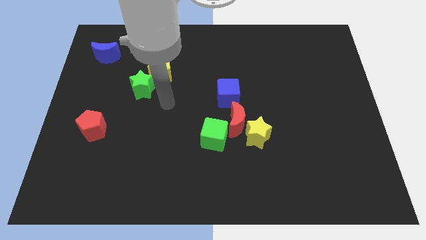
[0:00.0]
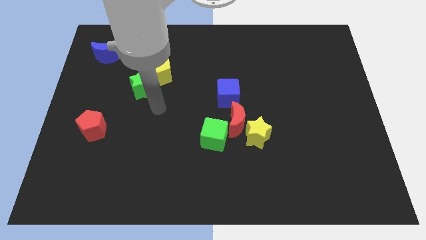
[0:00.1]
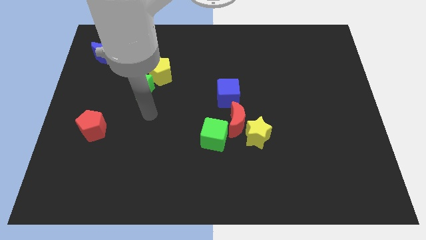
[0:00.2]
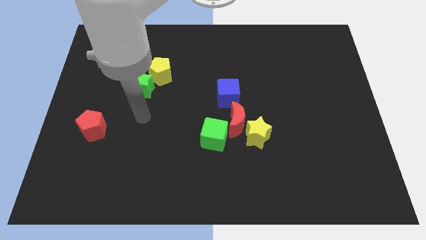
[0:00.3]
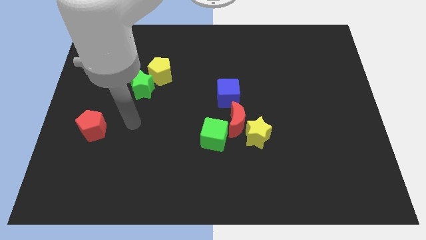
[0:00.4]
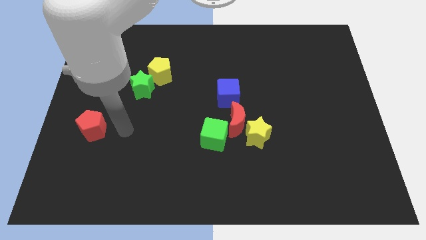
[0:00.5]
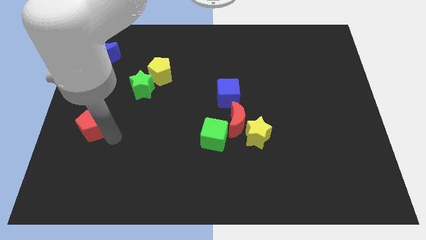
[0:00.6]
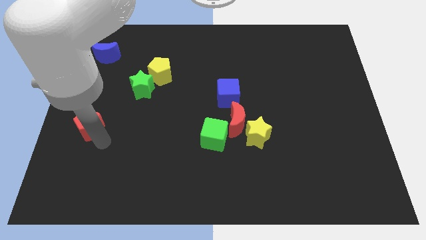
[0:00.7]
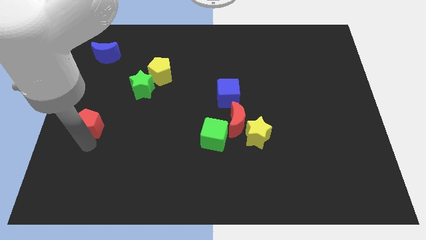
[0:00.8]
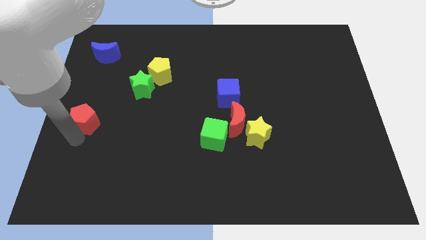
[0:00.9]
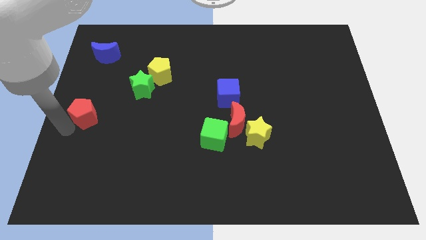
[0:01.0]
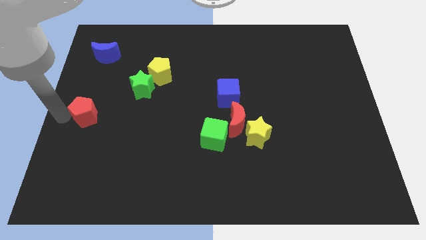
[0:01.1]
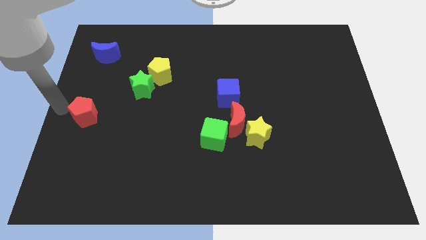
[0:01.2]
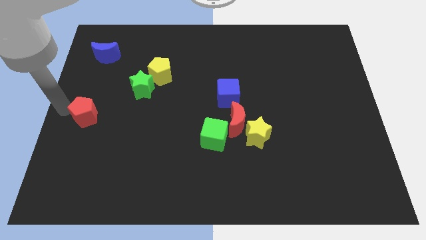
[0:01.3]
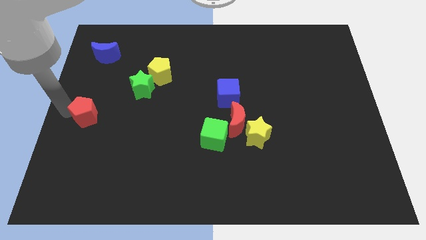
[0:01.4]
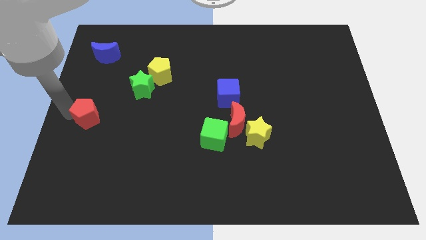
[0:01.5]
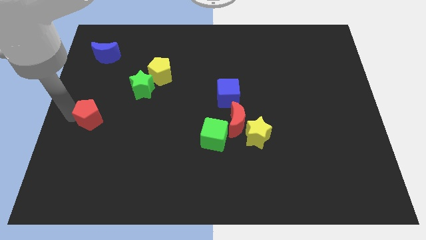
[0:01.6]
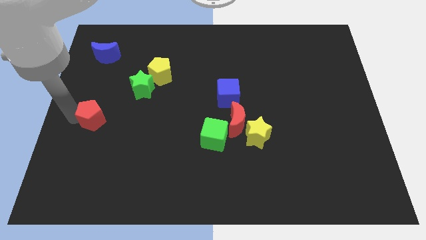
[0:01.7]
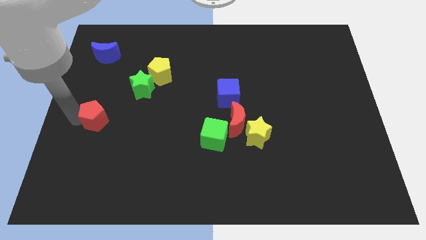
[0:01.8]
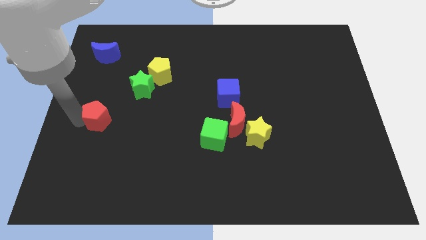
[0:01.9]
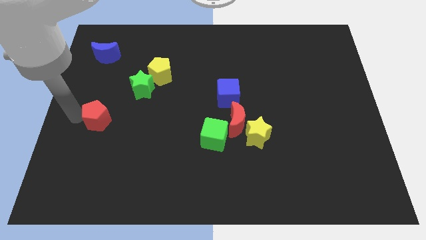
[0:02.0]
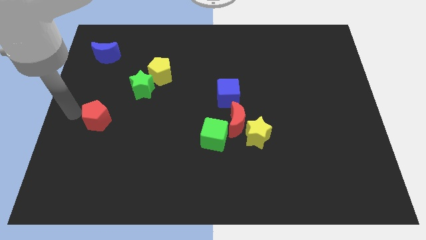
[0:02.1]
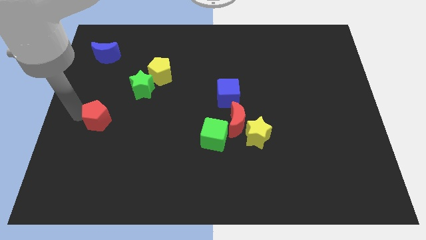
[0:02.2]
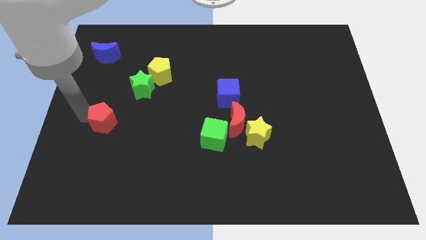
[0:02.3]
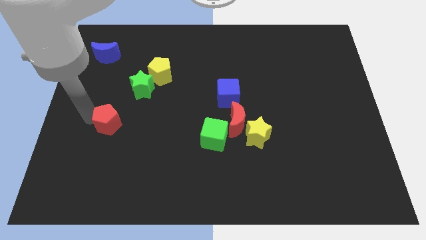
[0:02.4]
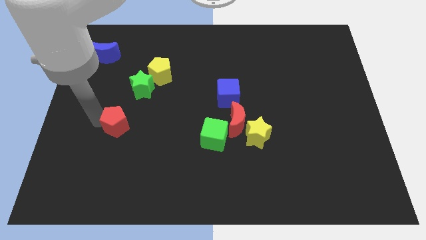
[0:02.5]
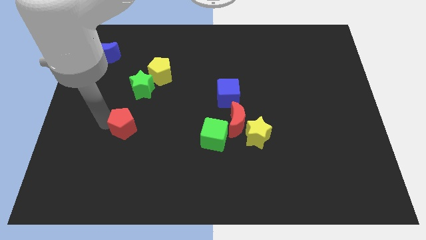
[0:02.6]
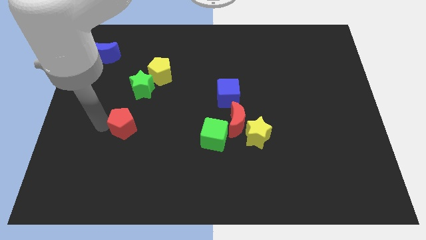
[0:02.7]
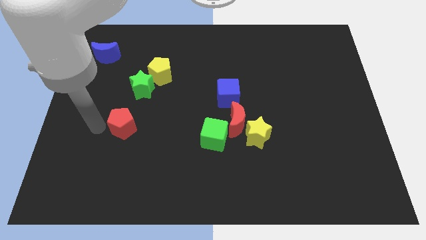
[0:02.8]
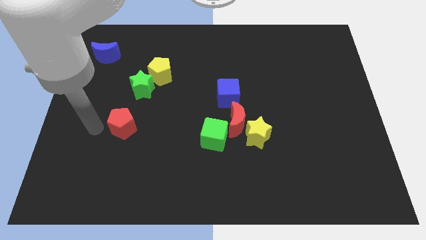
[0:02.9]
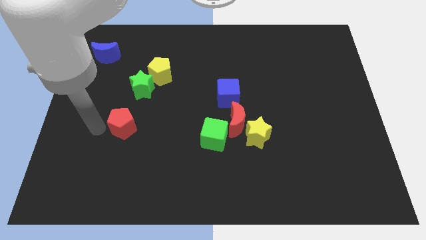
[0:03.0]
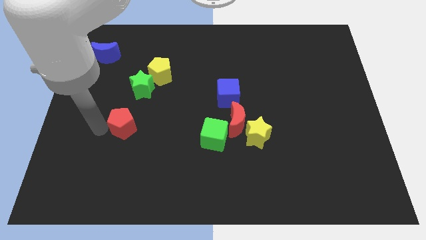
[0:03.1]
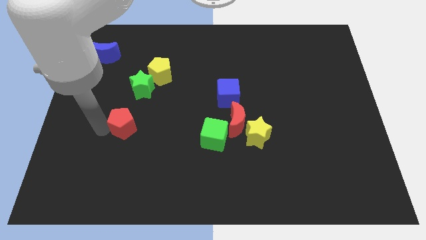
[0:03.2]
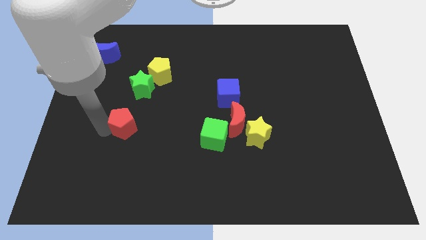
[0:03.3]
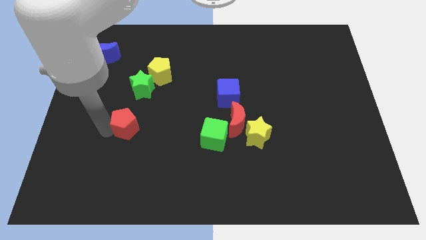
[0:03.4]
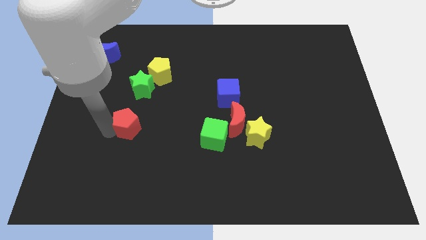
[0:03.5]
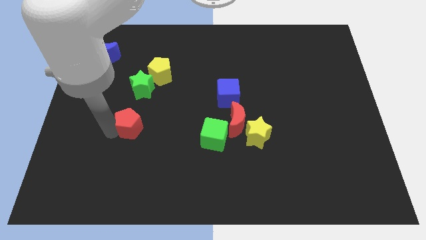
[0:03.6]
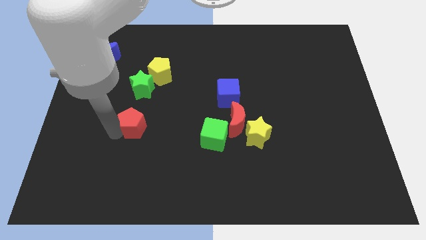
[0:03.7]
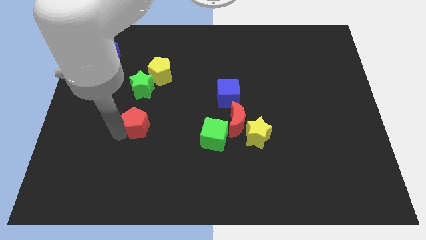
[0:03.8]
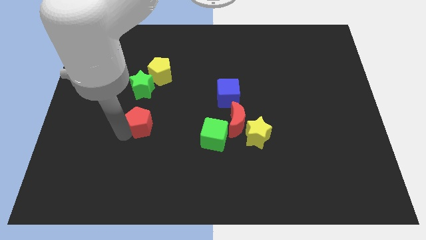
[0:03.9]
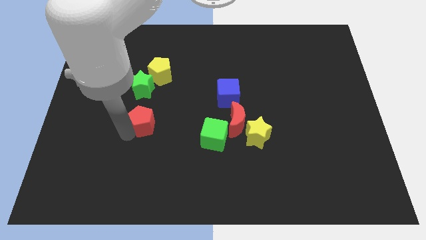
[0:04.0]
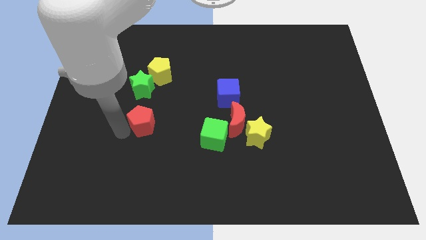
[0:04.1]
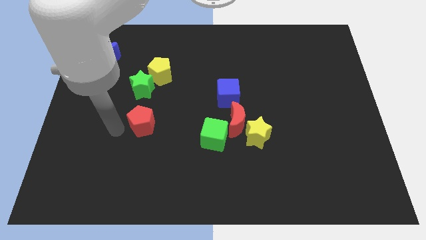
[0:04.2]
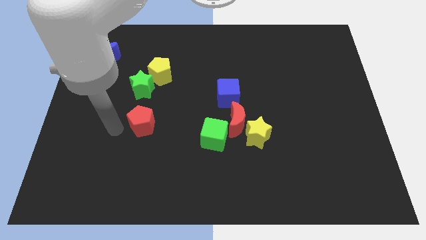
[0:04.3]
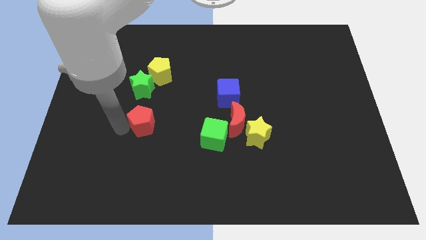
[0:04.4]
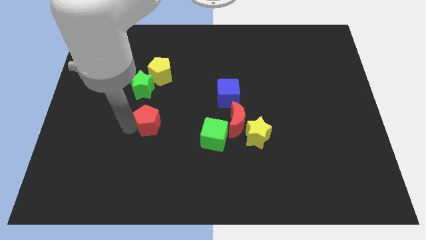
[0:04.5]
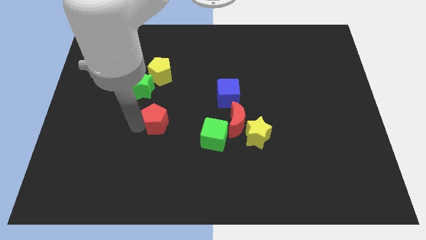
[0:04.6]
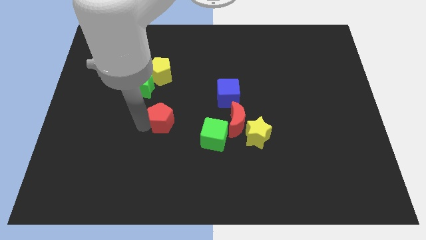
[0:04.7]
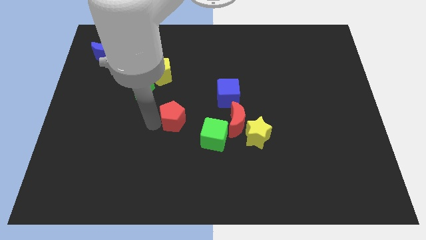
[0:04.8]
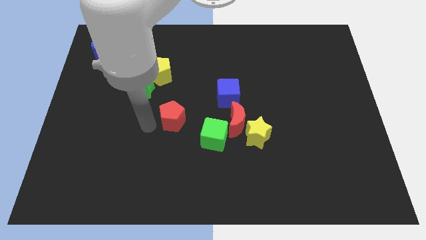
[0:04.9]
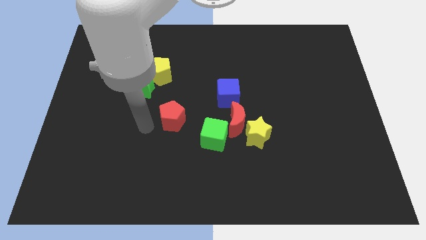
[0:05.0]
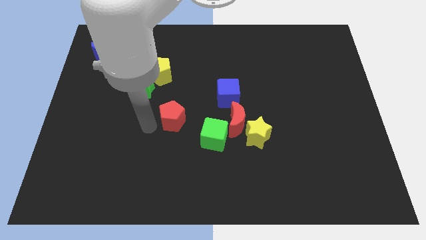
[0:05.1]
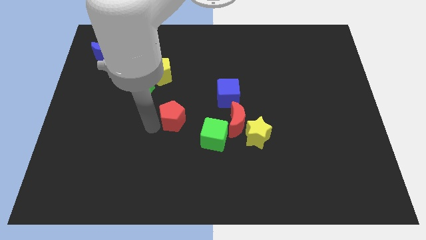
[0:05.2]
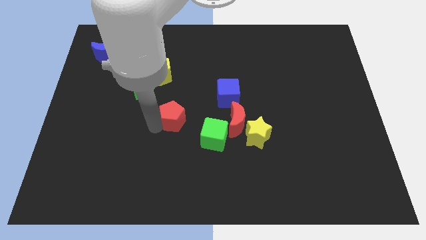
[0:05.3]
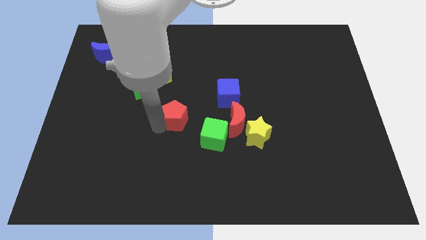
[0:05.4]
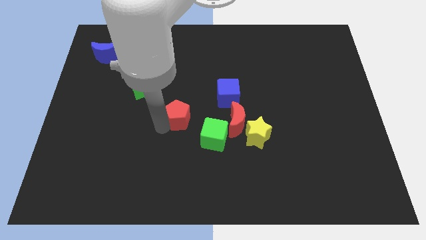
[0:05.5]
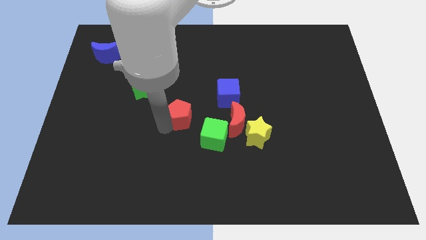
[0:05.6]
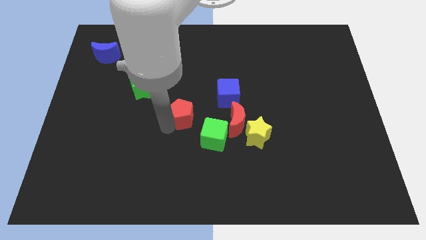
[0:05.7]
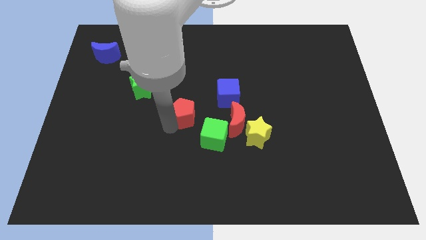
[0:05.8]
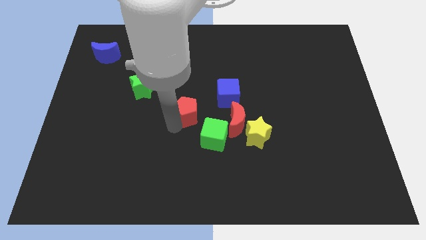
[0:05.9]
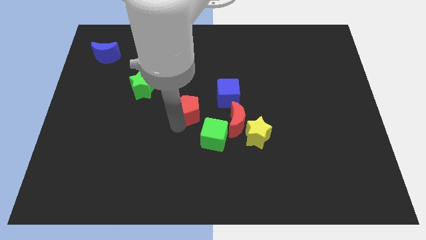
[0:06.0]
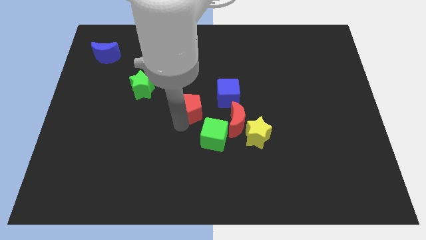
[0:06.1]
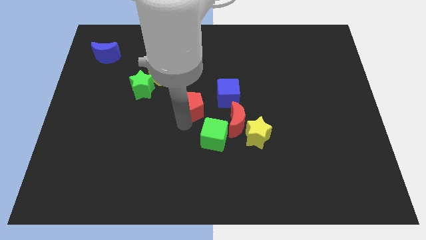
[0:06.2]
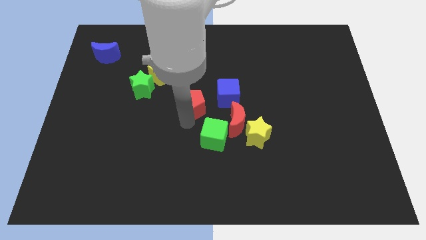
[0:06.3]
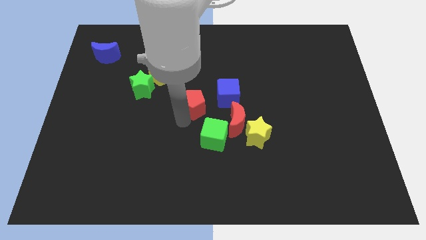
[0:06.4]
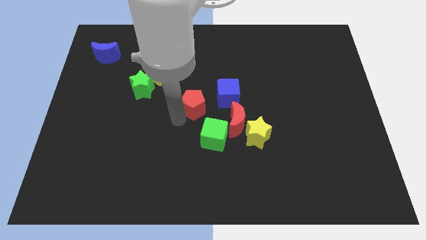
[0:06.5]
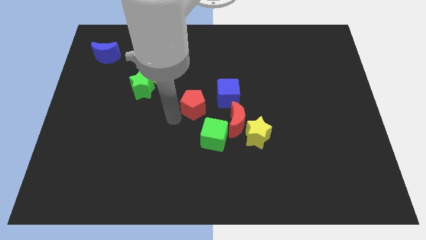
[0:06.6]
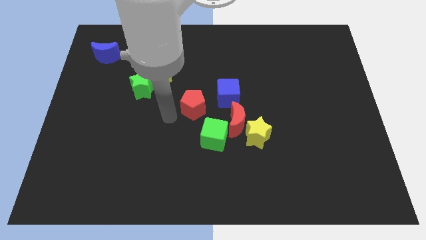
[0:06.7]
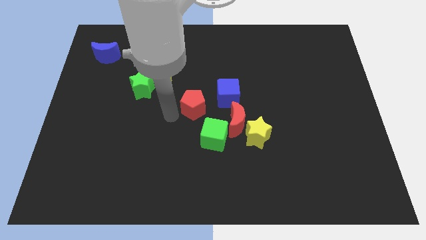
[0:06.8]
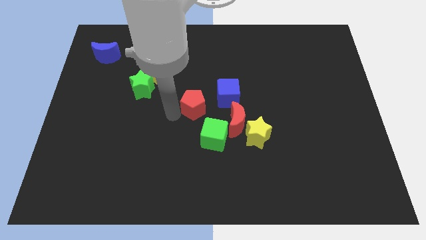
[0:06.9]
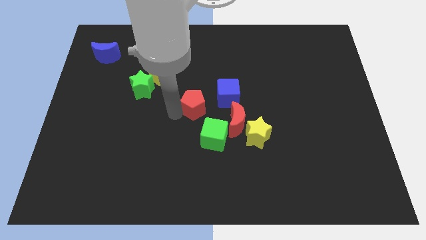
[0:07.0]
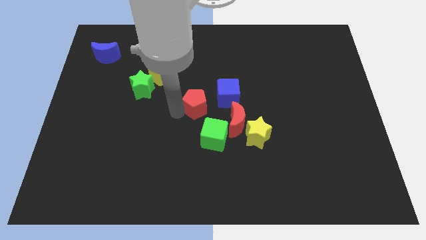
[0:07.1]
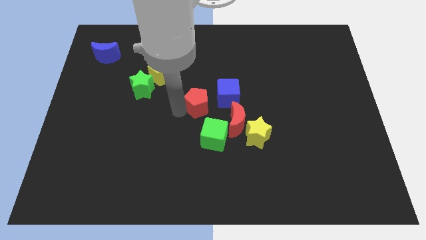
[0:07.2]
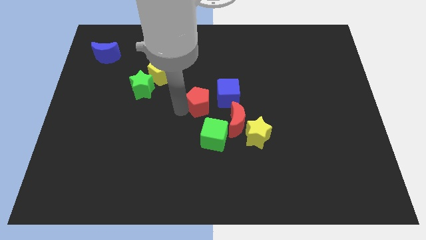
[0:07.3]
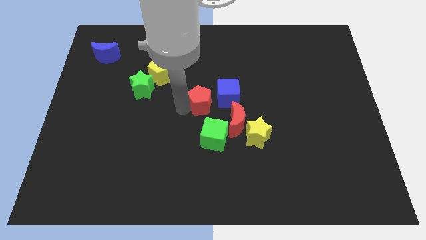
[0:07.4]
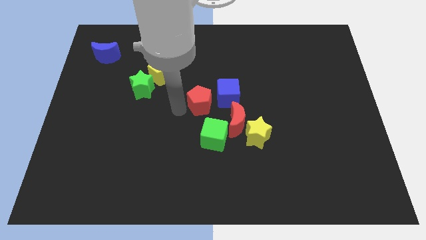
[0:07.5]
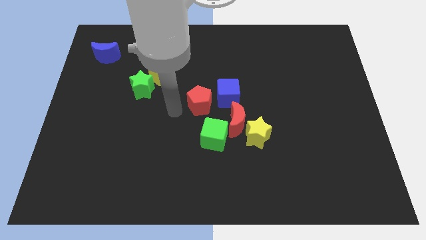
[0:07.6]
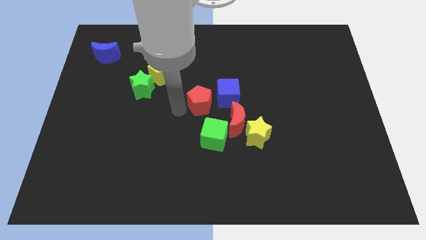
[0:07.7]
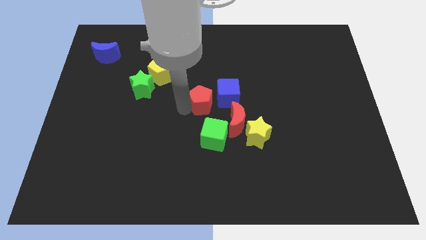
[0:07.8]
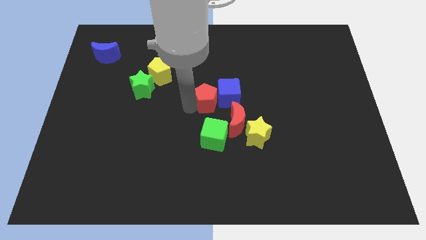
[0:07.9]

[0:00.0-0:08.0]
push the red pentagon close to the blue cube

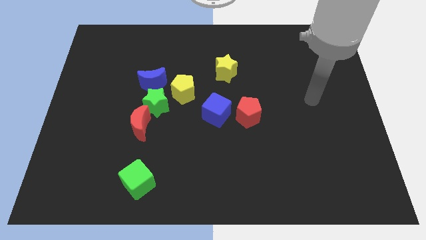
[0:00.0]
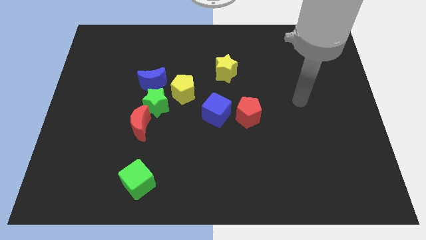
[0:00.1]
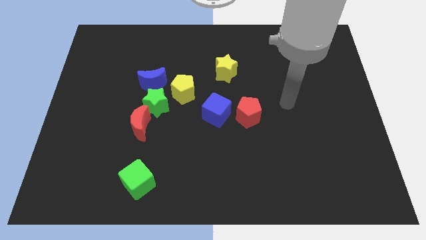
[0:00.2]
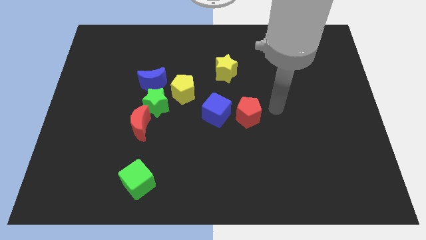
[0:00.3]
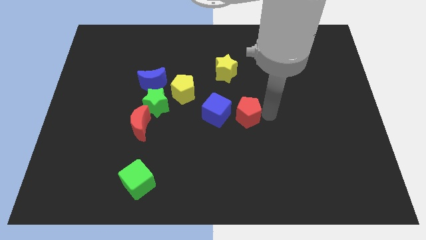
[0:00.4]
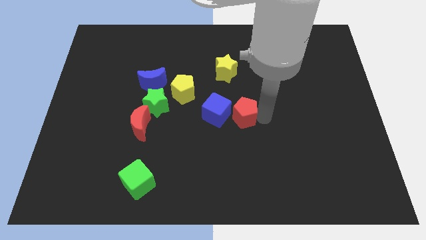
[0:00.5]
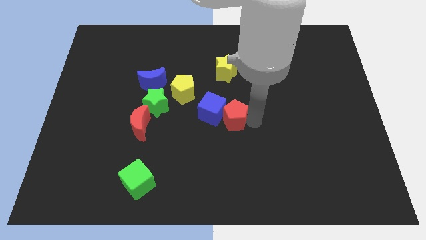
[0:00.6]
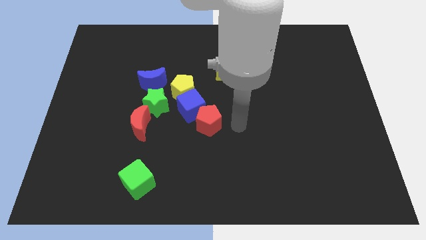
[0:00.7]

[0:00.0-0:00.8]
put the blue cube to the yellow pentagon
